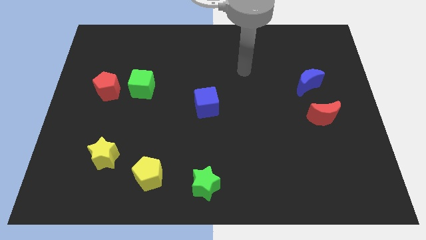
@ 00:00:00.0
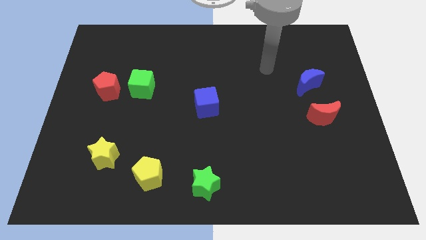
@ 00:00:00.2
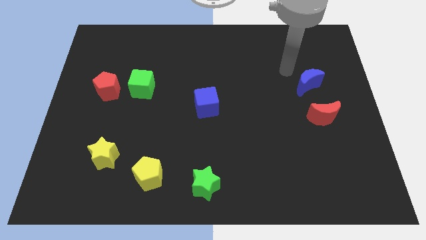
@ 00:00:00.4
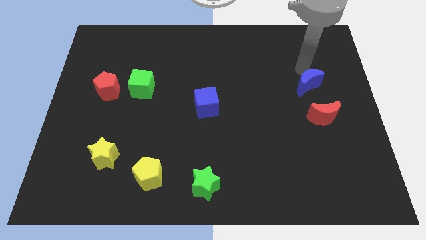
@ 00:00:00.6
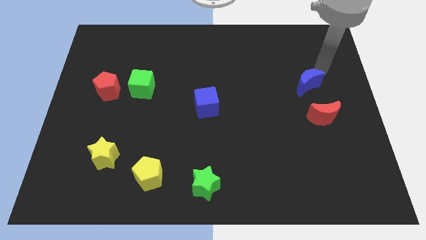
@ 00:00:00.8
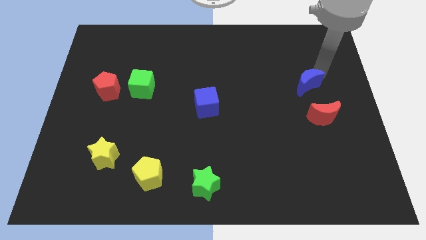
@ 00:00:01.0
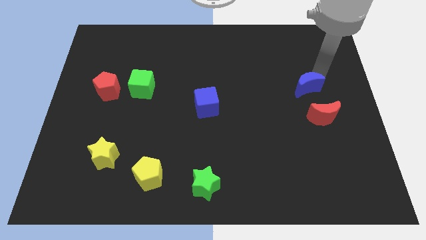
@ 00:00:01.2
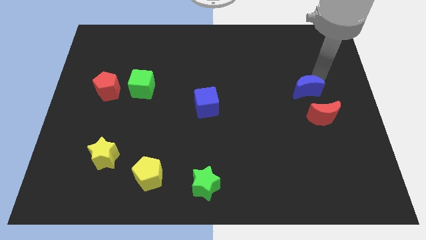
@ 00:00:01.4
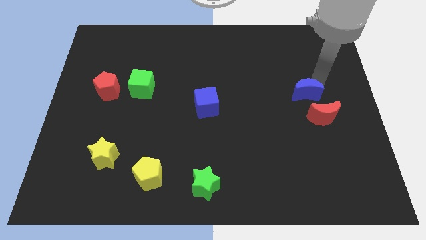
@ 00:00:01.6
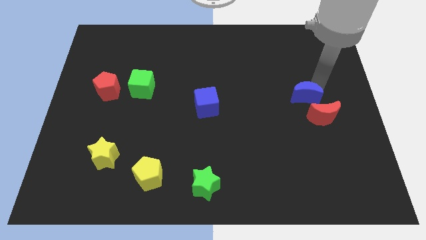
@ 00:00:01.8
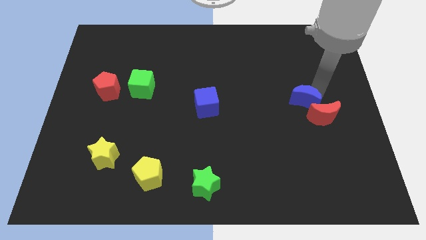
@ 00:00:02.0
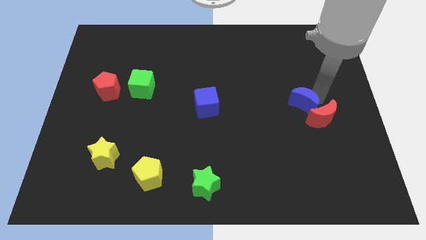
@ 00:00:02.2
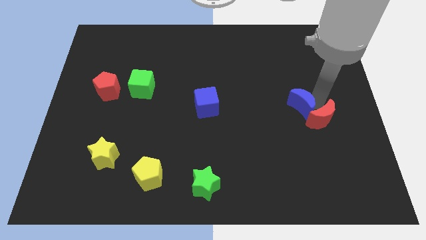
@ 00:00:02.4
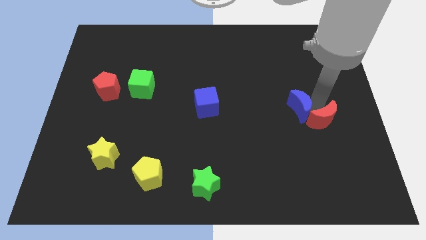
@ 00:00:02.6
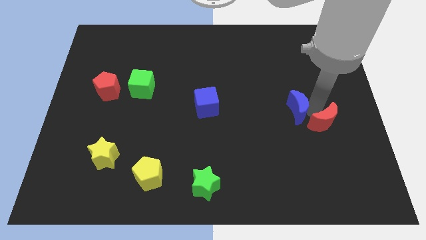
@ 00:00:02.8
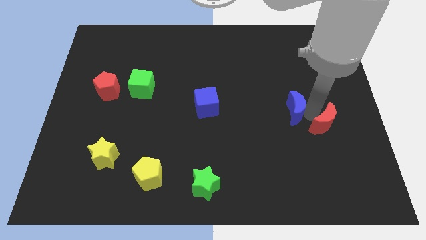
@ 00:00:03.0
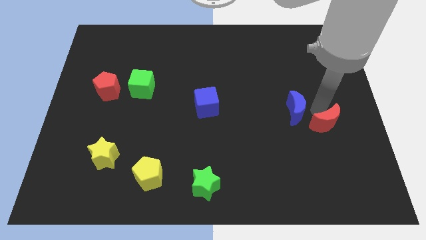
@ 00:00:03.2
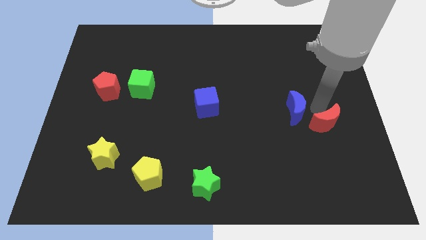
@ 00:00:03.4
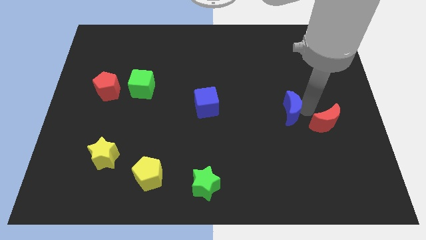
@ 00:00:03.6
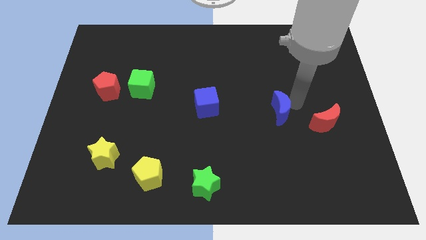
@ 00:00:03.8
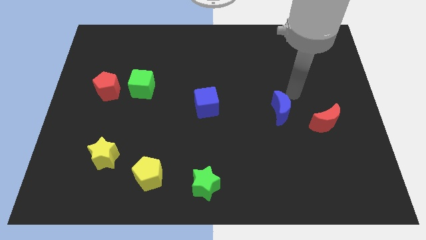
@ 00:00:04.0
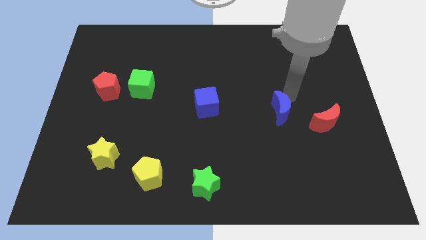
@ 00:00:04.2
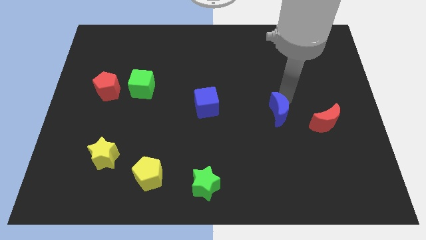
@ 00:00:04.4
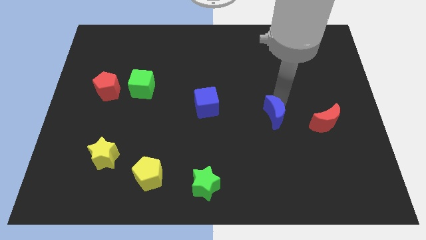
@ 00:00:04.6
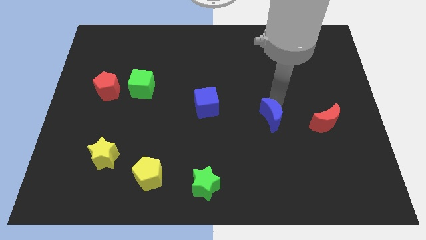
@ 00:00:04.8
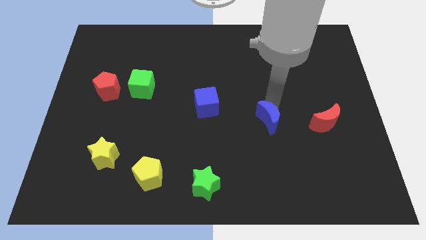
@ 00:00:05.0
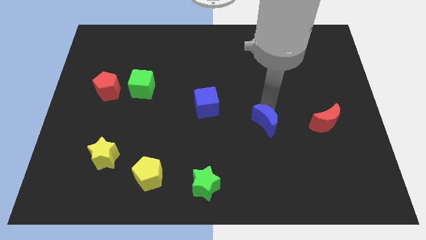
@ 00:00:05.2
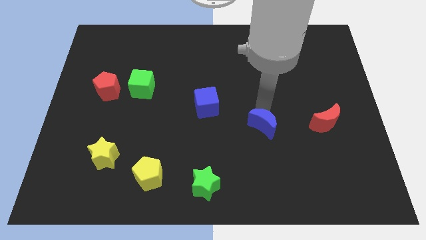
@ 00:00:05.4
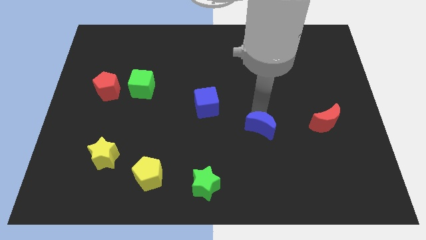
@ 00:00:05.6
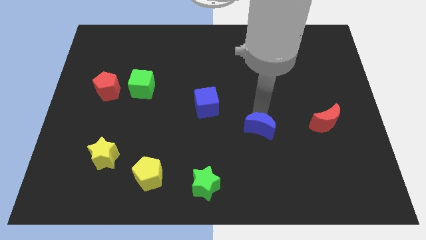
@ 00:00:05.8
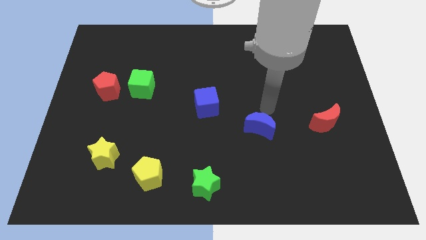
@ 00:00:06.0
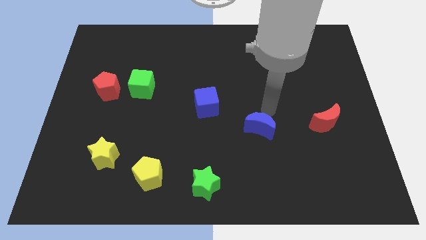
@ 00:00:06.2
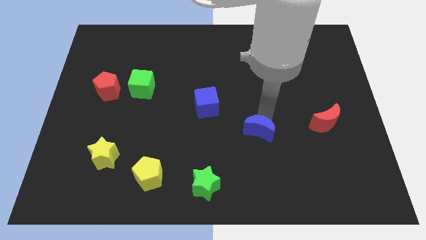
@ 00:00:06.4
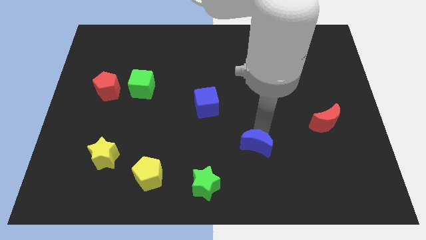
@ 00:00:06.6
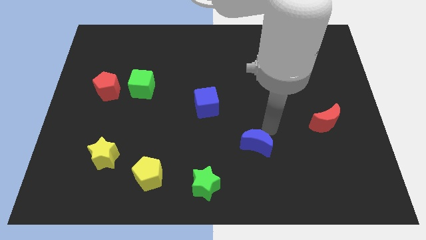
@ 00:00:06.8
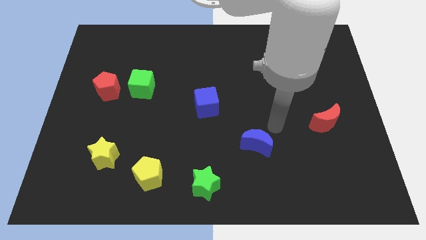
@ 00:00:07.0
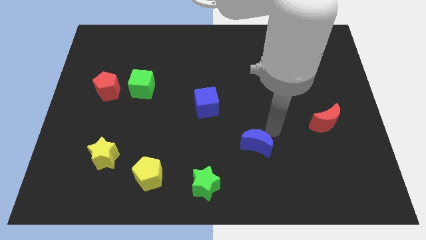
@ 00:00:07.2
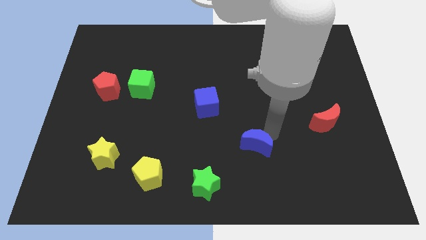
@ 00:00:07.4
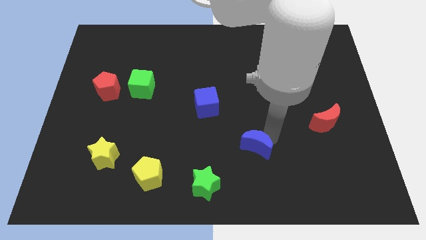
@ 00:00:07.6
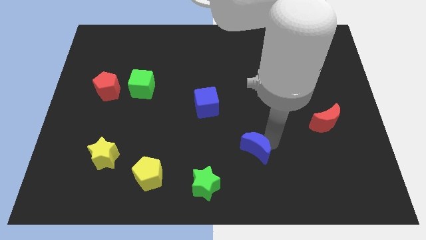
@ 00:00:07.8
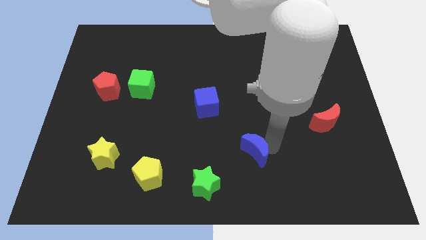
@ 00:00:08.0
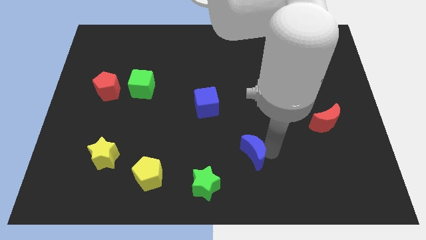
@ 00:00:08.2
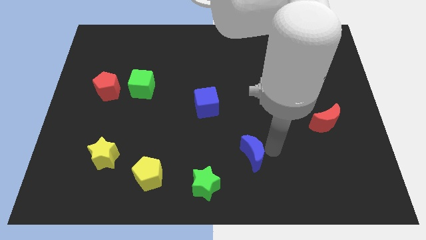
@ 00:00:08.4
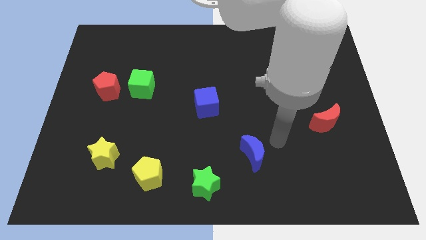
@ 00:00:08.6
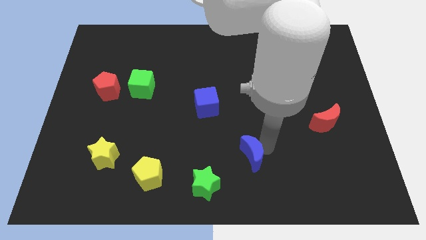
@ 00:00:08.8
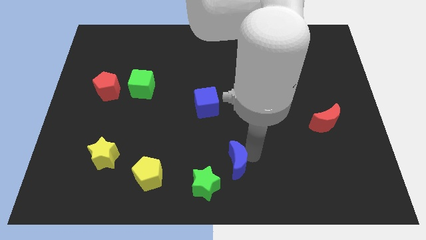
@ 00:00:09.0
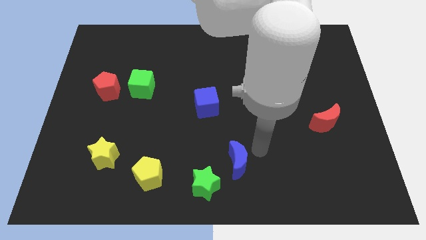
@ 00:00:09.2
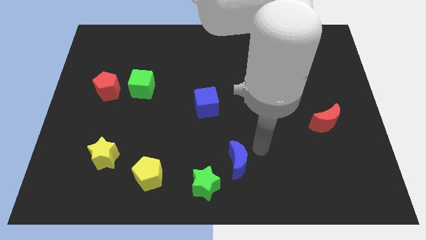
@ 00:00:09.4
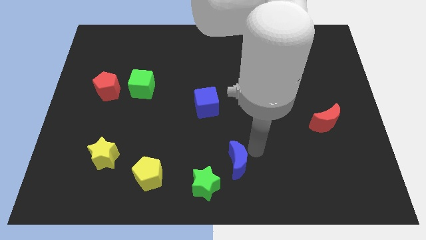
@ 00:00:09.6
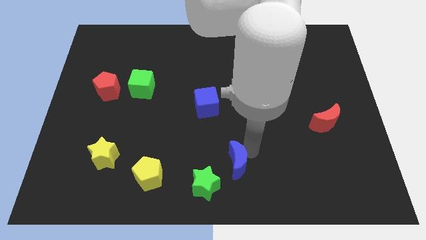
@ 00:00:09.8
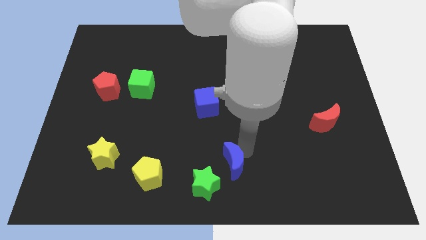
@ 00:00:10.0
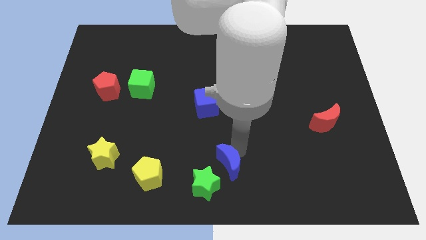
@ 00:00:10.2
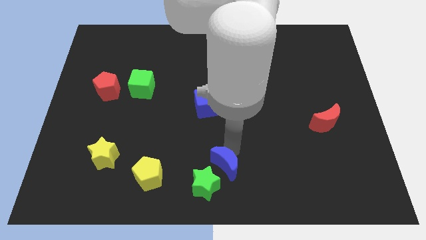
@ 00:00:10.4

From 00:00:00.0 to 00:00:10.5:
slide the blue moon close to the green star

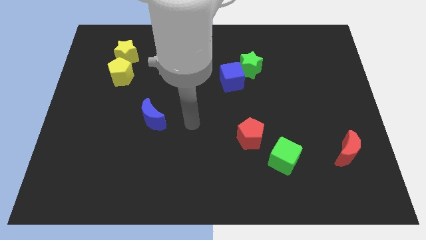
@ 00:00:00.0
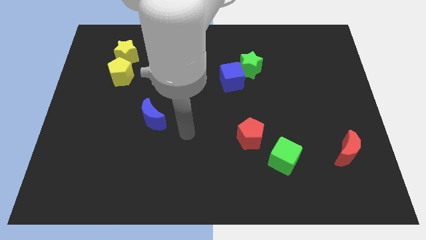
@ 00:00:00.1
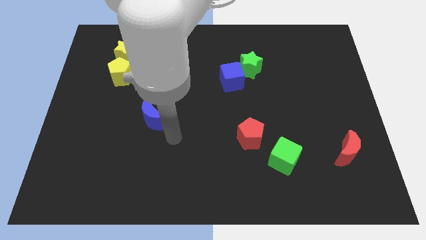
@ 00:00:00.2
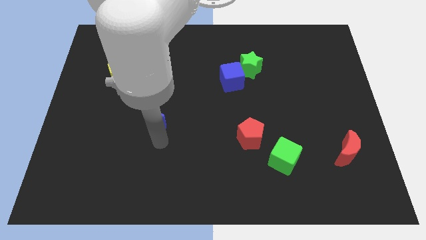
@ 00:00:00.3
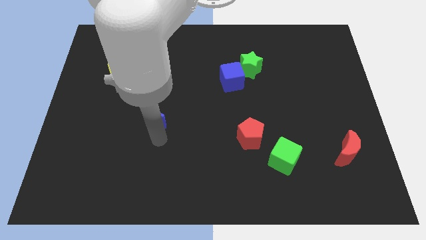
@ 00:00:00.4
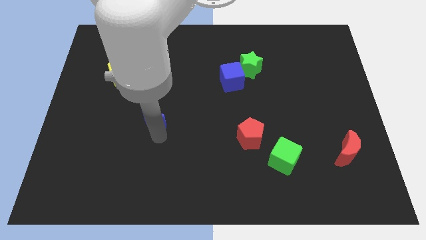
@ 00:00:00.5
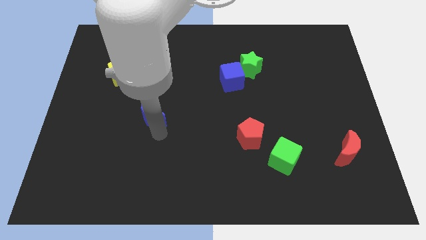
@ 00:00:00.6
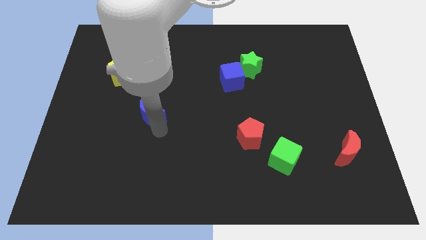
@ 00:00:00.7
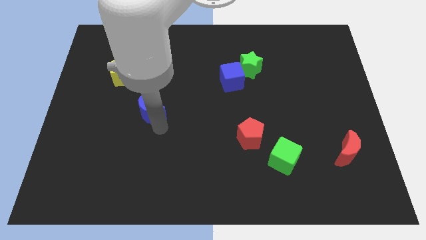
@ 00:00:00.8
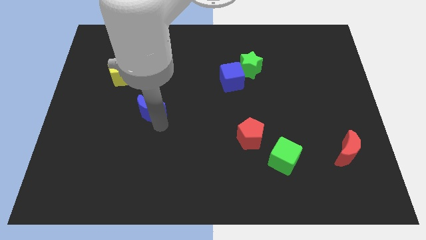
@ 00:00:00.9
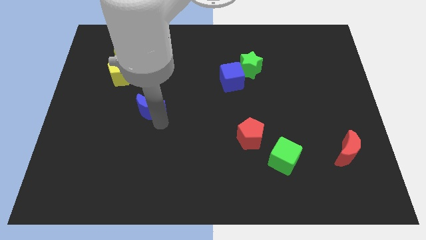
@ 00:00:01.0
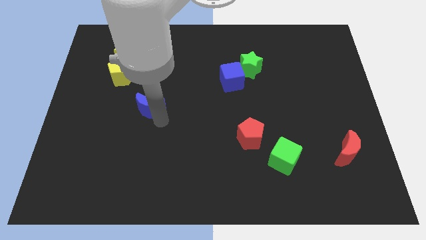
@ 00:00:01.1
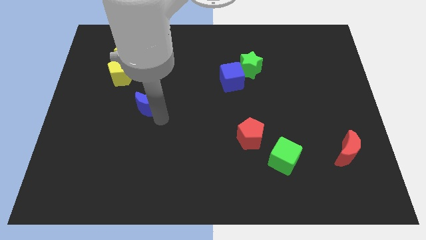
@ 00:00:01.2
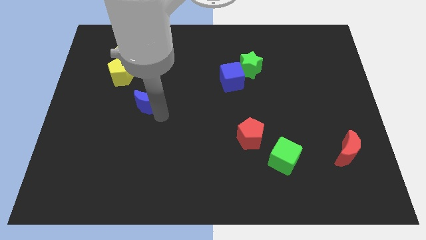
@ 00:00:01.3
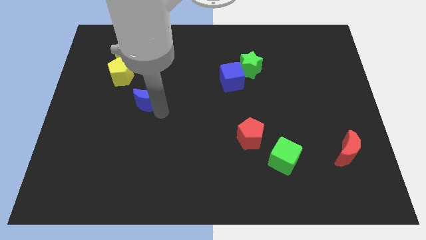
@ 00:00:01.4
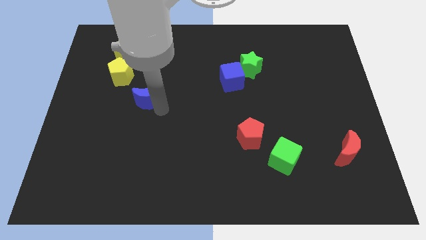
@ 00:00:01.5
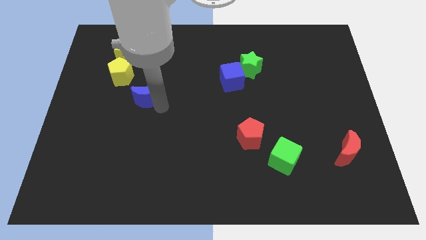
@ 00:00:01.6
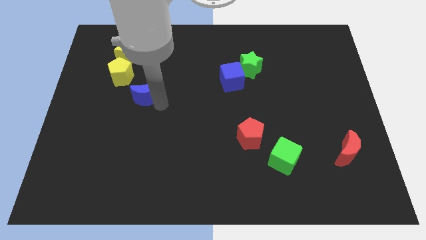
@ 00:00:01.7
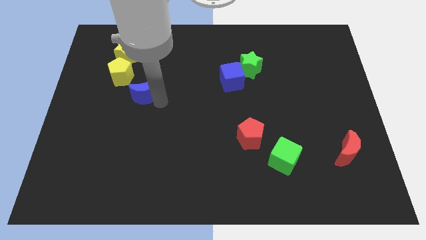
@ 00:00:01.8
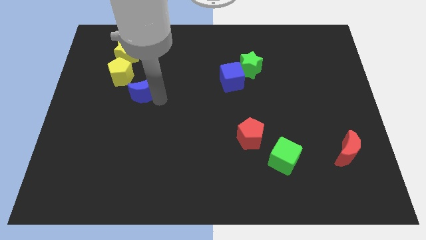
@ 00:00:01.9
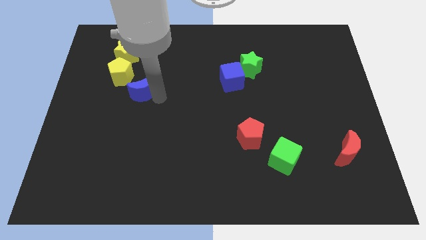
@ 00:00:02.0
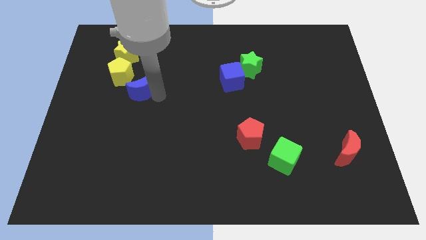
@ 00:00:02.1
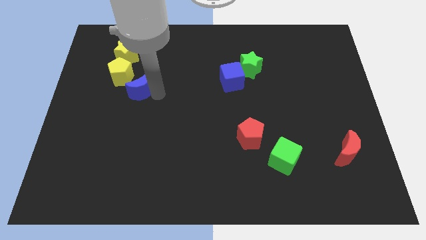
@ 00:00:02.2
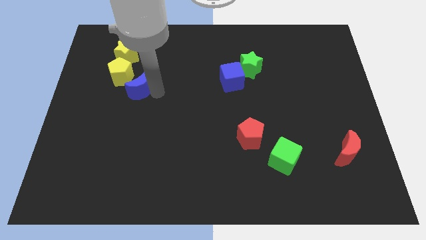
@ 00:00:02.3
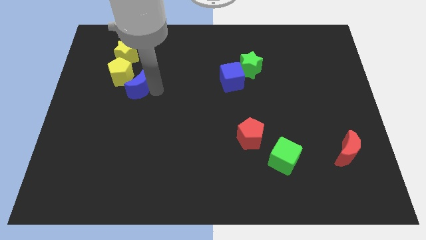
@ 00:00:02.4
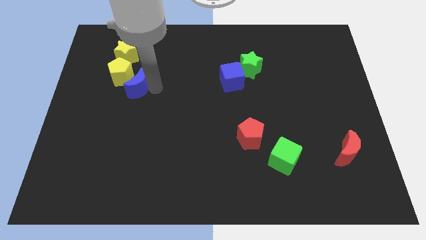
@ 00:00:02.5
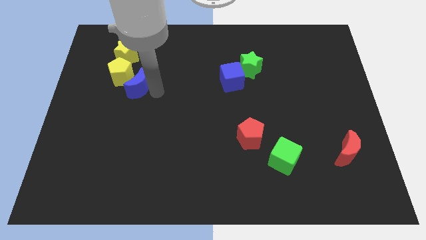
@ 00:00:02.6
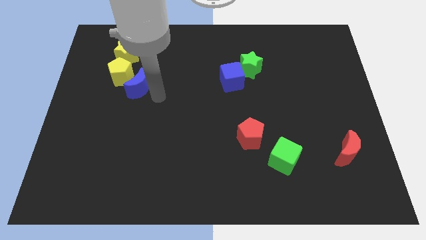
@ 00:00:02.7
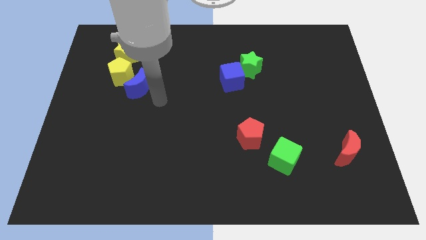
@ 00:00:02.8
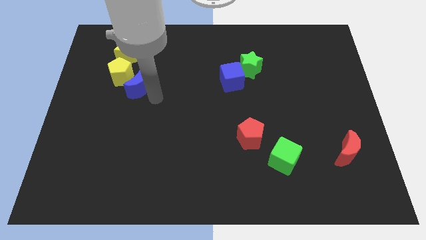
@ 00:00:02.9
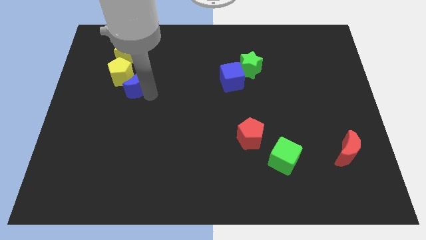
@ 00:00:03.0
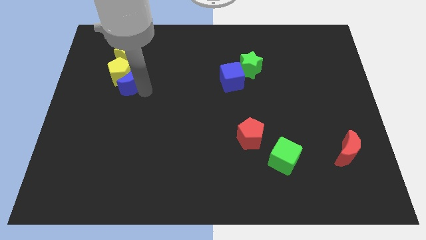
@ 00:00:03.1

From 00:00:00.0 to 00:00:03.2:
slide the blue moon close to the yellow pentagon
